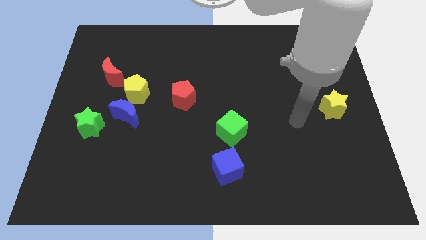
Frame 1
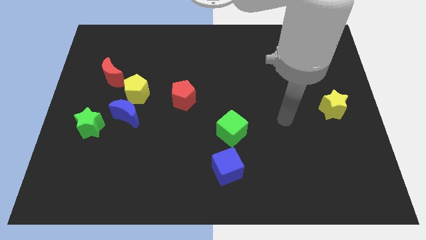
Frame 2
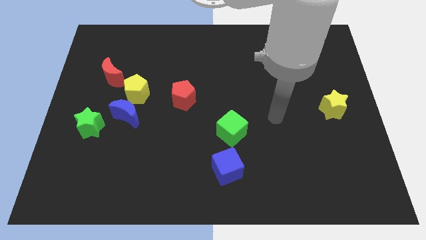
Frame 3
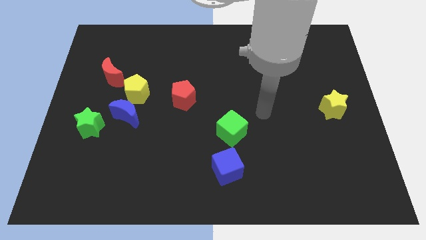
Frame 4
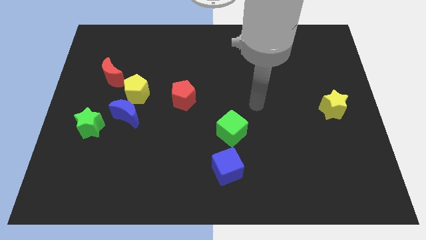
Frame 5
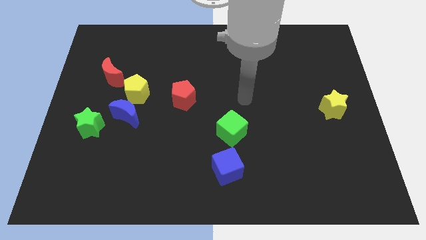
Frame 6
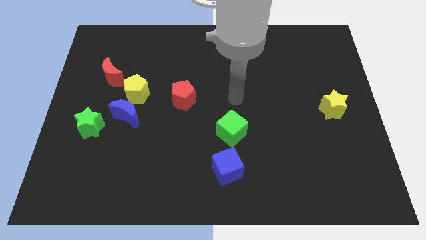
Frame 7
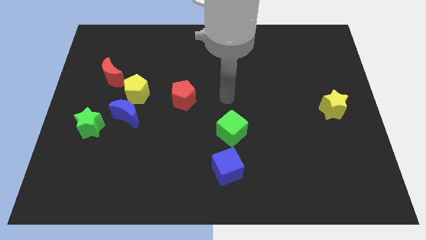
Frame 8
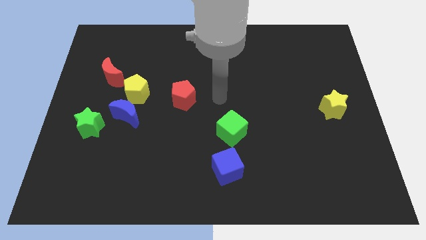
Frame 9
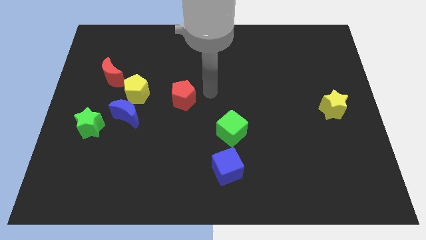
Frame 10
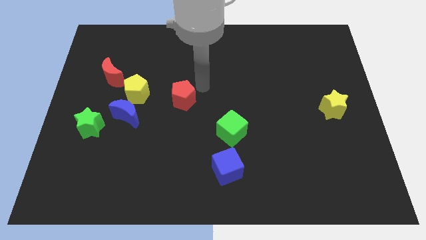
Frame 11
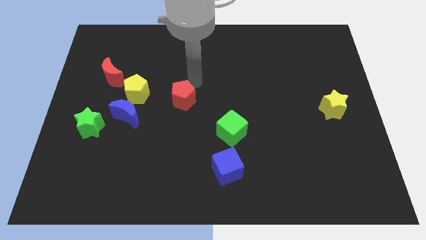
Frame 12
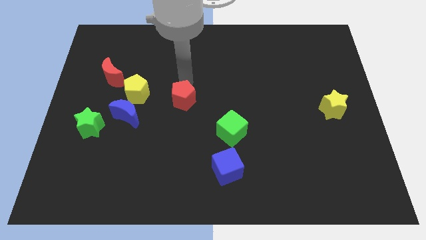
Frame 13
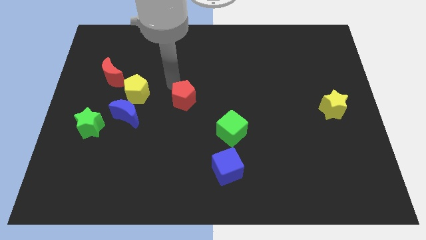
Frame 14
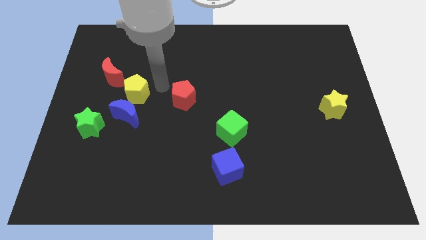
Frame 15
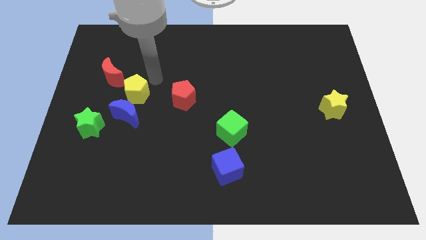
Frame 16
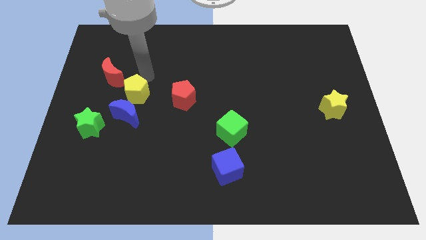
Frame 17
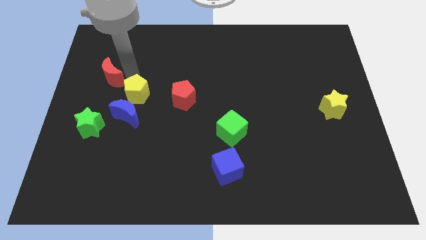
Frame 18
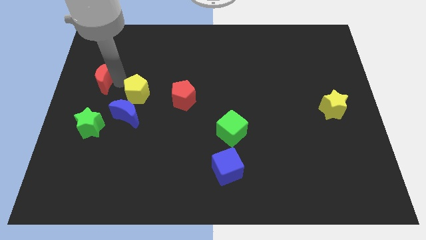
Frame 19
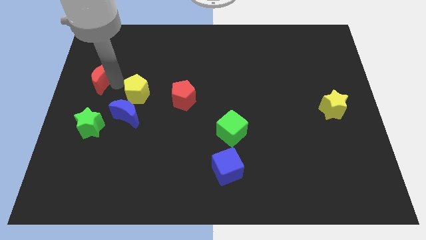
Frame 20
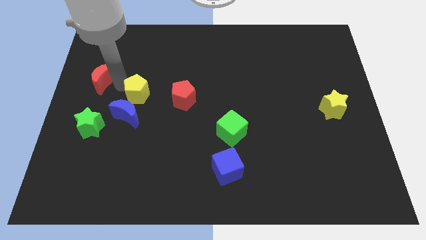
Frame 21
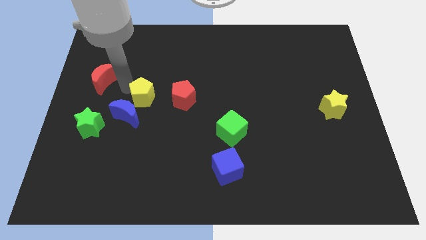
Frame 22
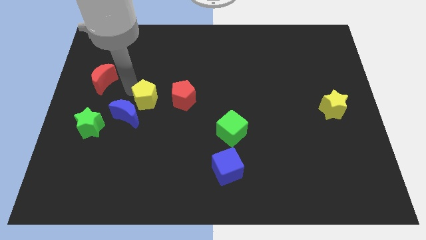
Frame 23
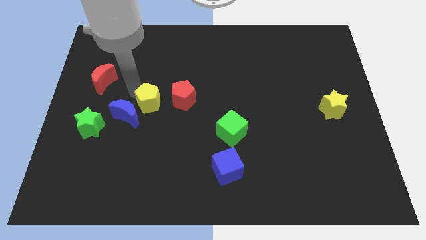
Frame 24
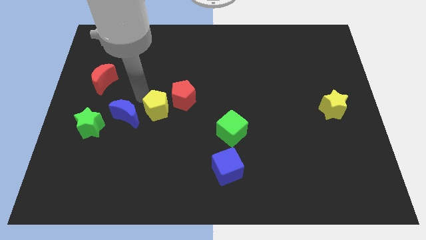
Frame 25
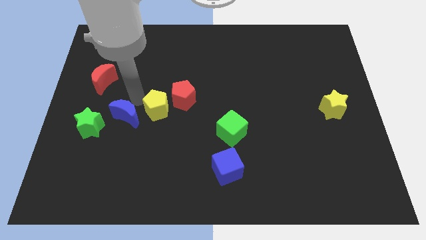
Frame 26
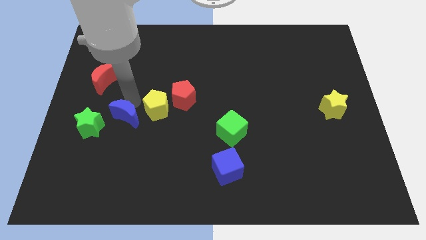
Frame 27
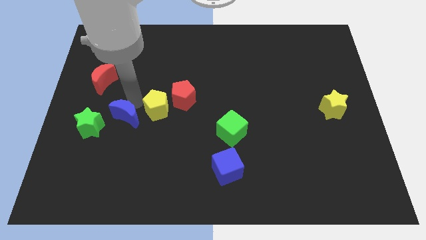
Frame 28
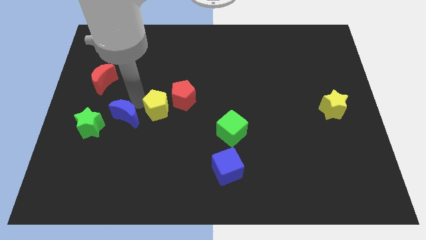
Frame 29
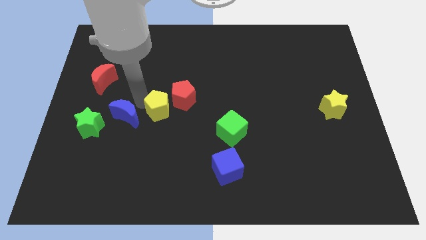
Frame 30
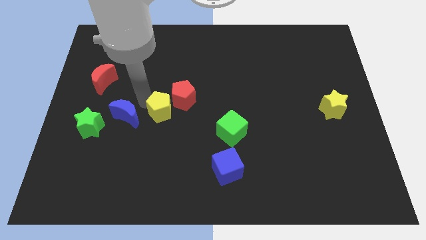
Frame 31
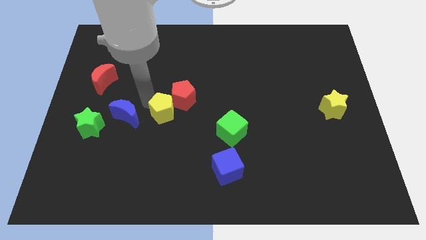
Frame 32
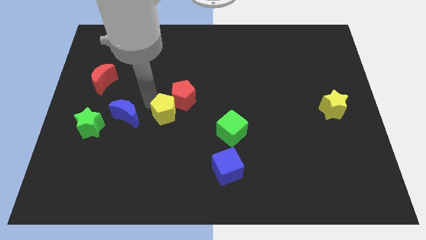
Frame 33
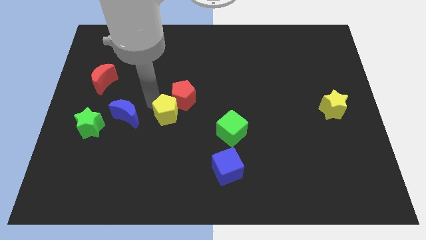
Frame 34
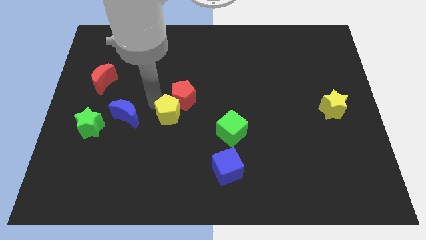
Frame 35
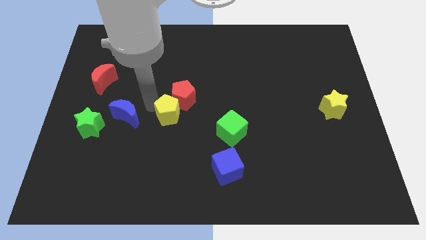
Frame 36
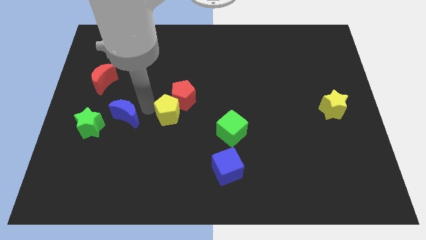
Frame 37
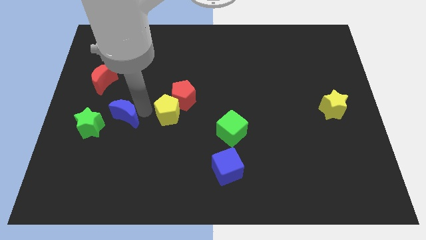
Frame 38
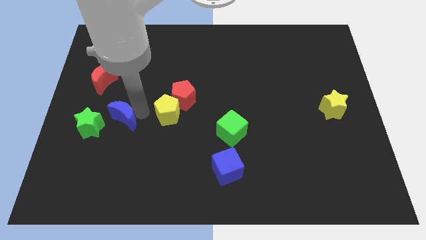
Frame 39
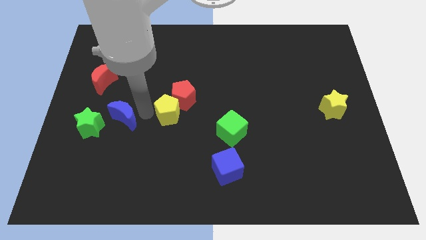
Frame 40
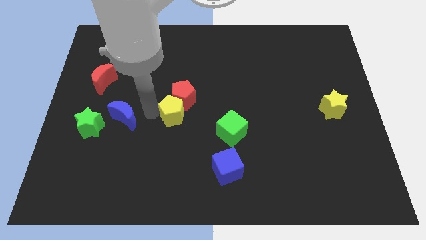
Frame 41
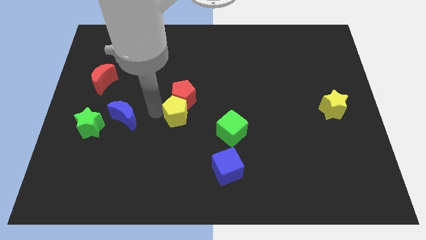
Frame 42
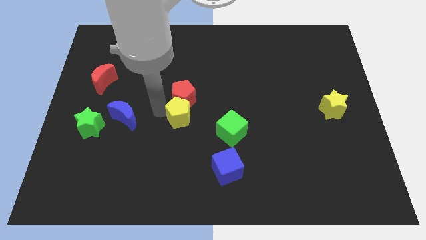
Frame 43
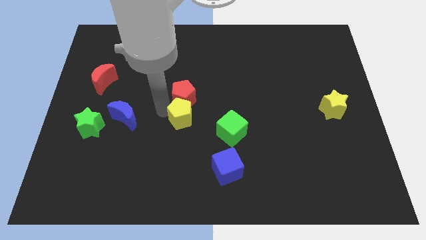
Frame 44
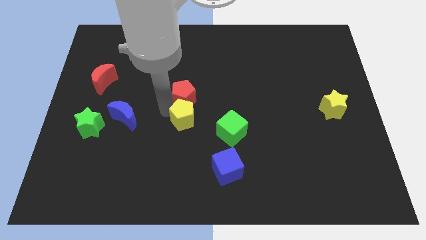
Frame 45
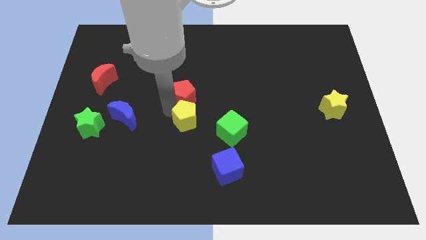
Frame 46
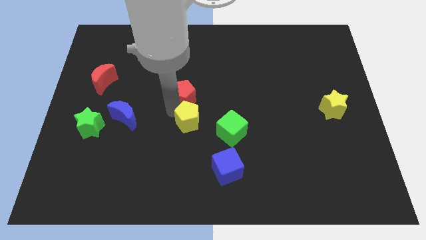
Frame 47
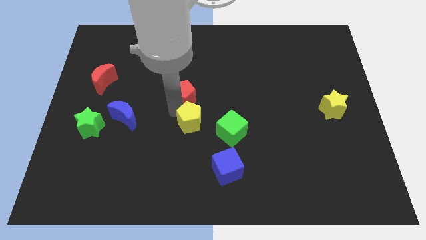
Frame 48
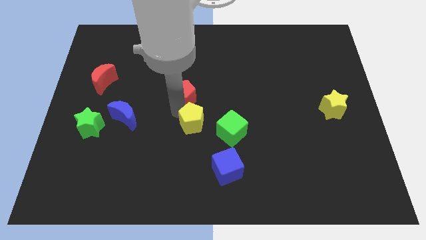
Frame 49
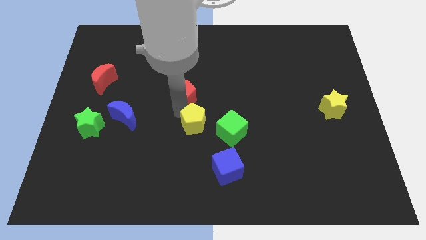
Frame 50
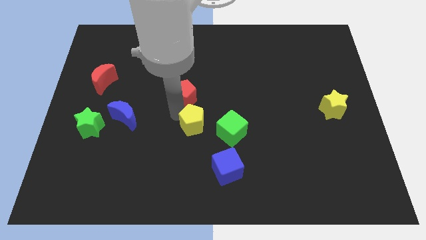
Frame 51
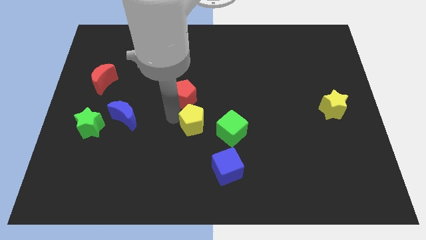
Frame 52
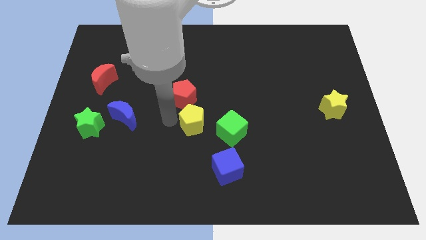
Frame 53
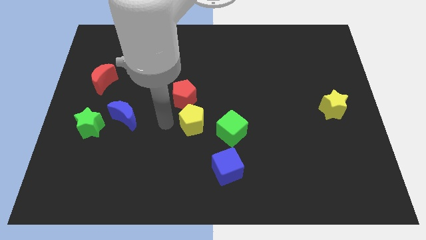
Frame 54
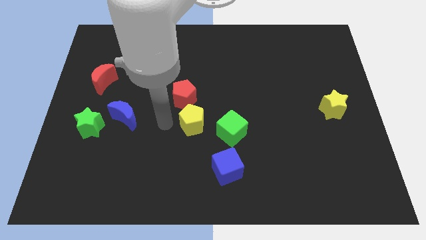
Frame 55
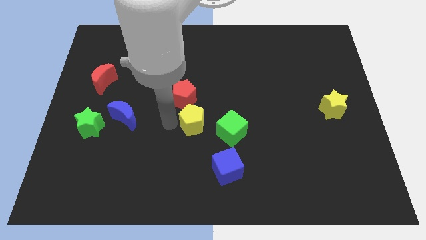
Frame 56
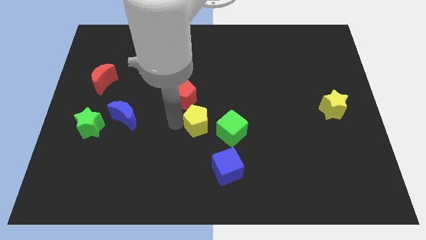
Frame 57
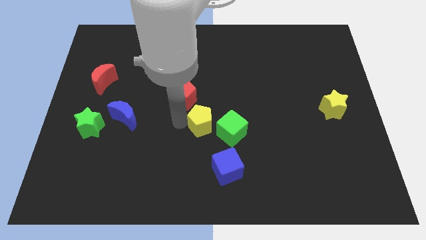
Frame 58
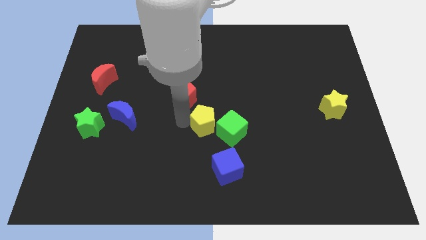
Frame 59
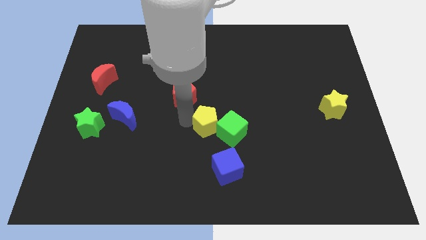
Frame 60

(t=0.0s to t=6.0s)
push the yellow pentagon close to the green cube
